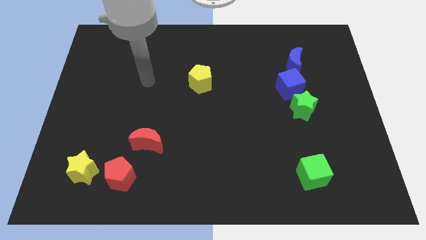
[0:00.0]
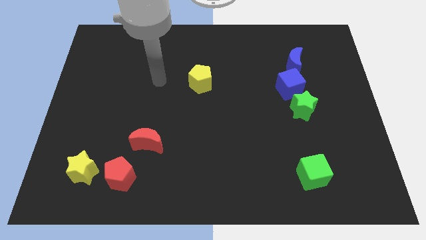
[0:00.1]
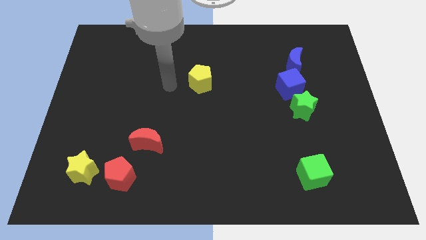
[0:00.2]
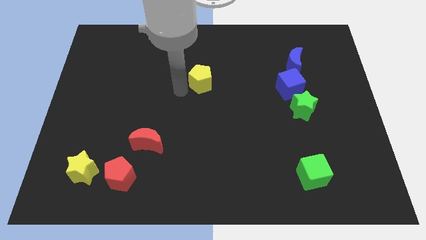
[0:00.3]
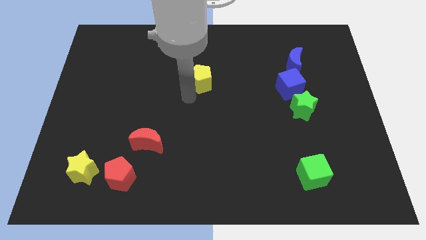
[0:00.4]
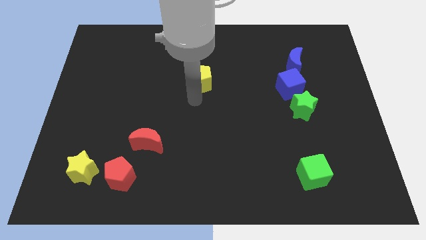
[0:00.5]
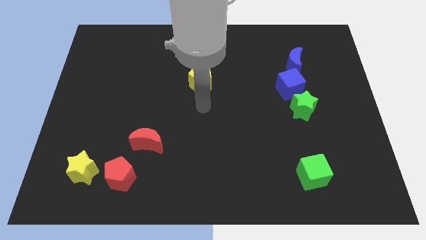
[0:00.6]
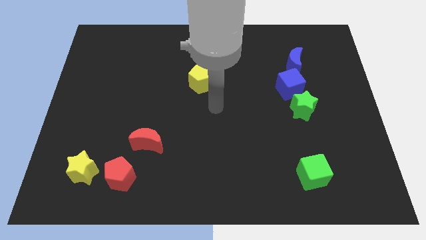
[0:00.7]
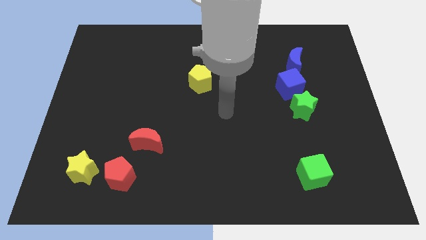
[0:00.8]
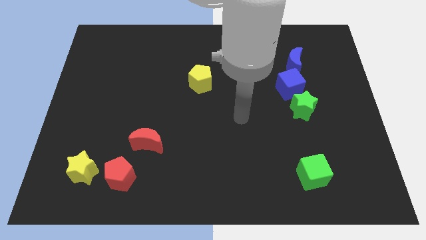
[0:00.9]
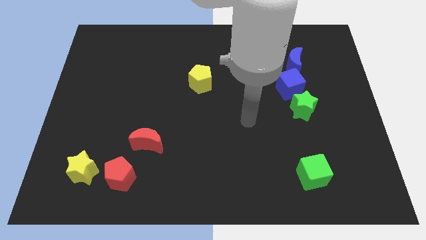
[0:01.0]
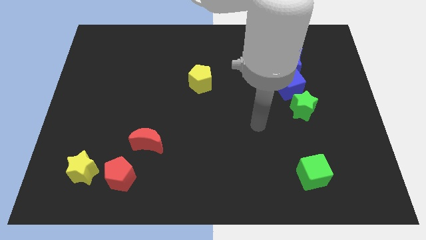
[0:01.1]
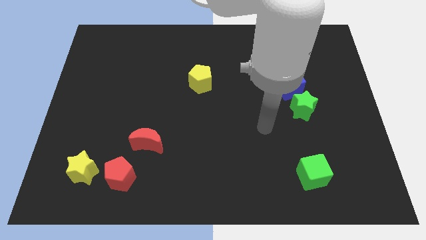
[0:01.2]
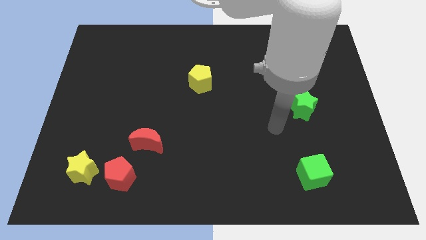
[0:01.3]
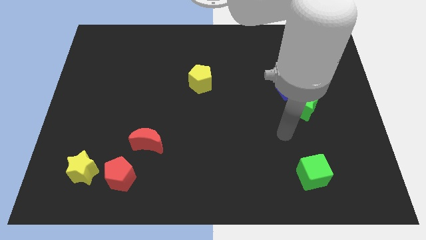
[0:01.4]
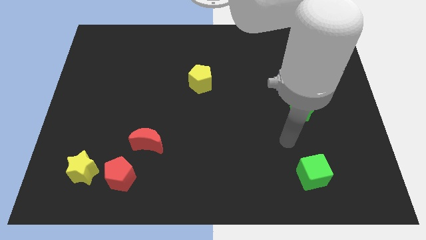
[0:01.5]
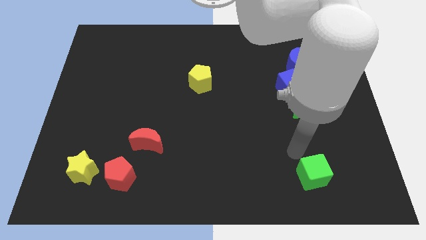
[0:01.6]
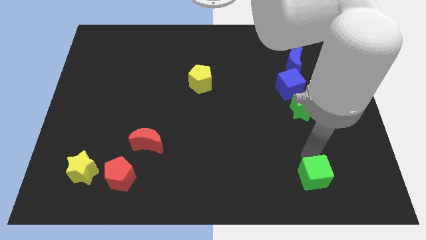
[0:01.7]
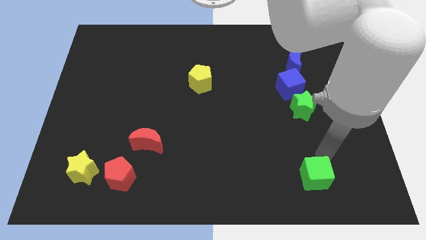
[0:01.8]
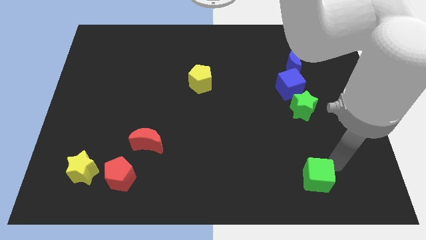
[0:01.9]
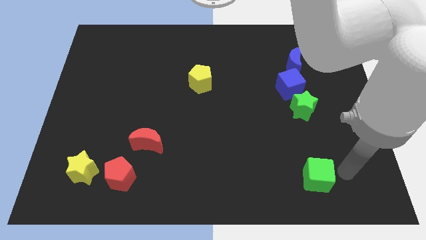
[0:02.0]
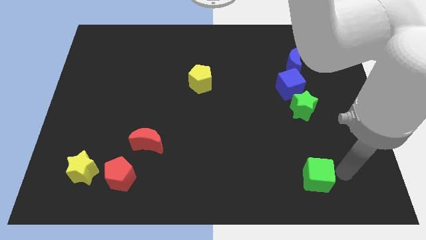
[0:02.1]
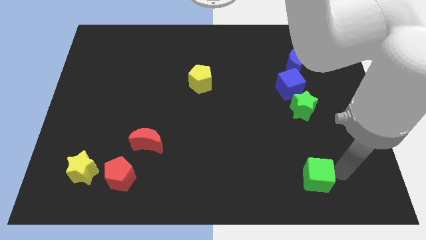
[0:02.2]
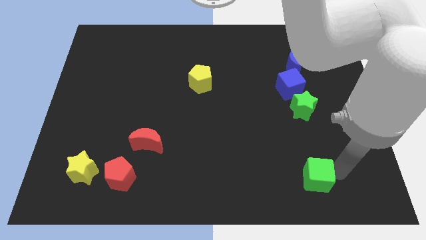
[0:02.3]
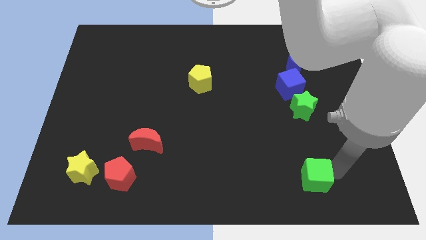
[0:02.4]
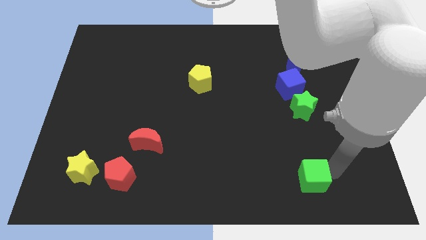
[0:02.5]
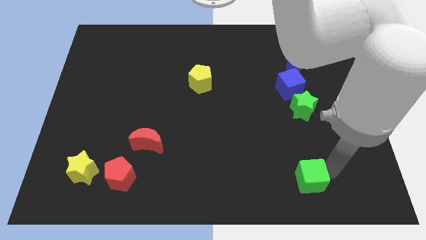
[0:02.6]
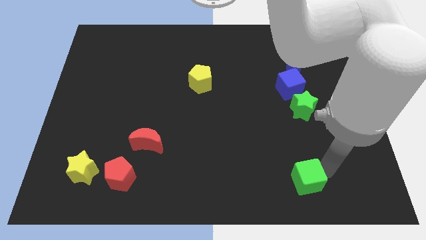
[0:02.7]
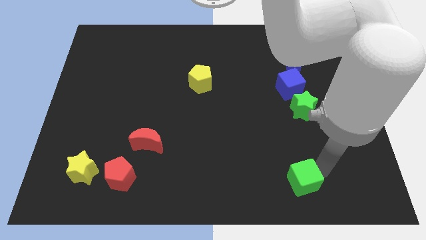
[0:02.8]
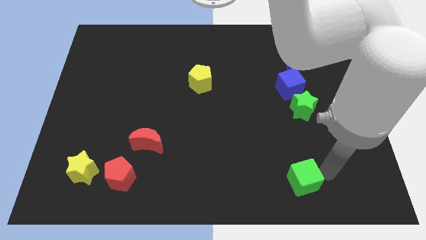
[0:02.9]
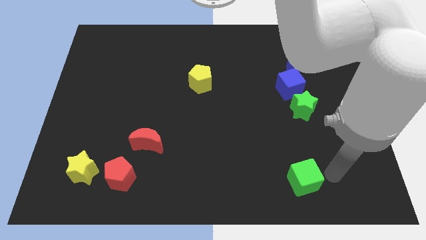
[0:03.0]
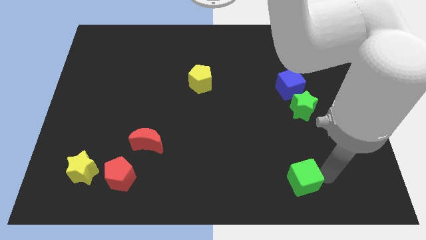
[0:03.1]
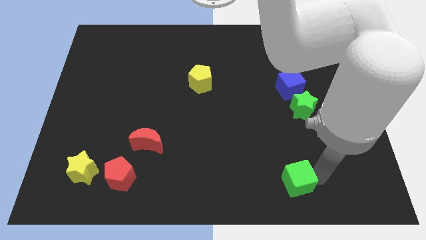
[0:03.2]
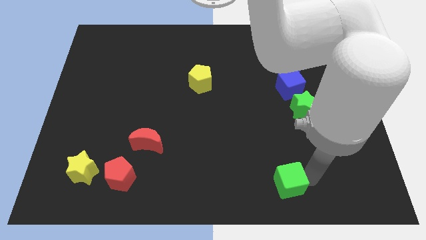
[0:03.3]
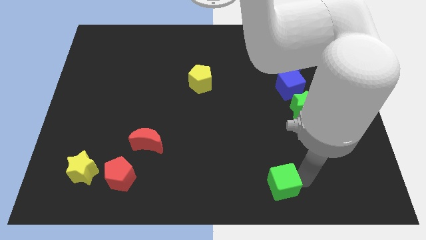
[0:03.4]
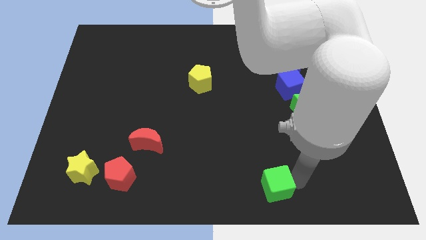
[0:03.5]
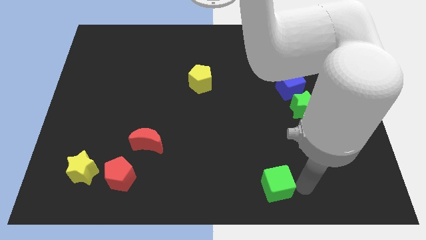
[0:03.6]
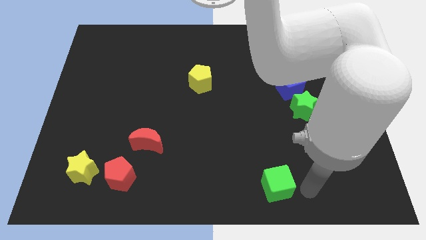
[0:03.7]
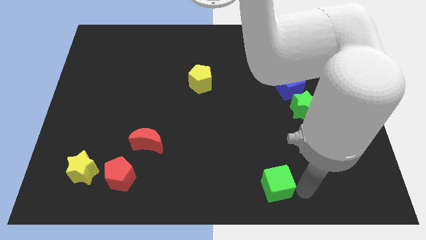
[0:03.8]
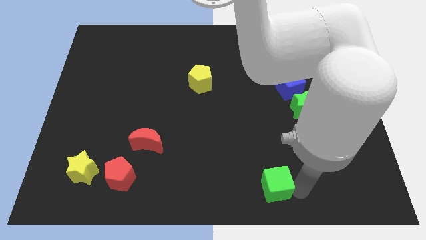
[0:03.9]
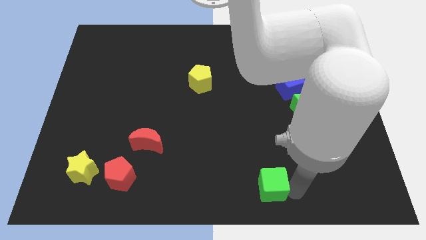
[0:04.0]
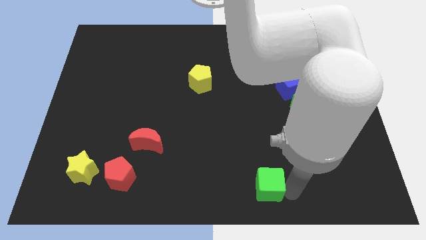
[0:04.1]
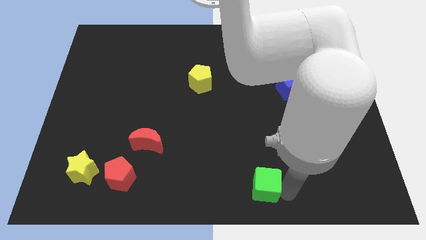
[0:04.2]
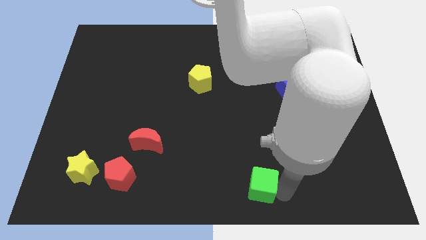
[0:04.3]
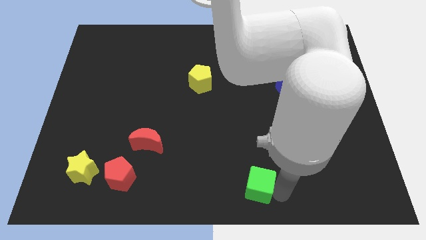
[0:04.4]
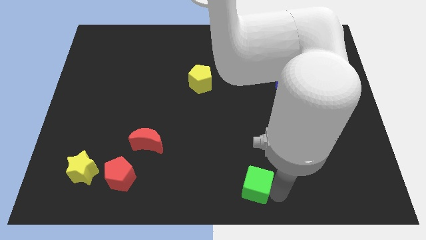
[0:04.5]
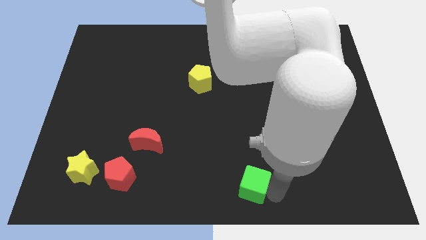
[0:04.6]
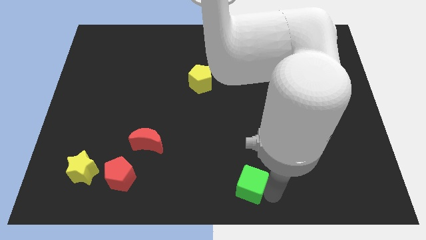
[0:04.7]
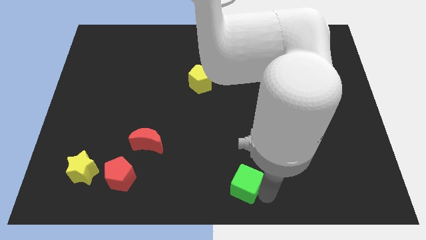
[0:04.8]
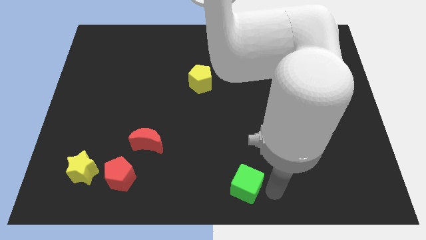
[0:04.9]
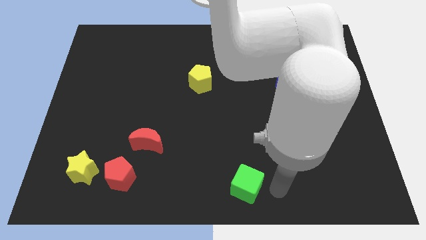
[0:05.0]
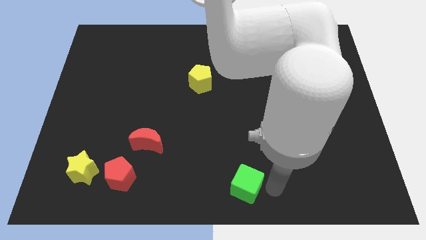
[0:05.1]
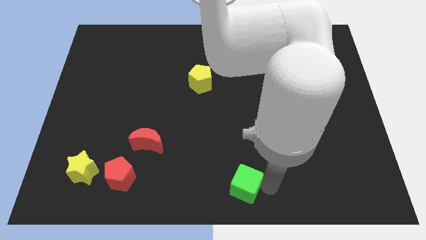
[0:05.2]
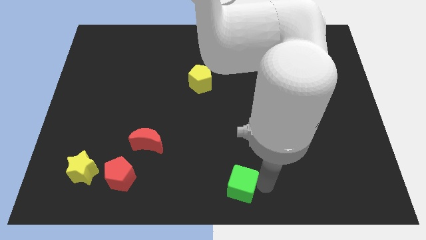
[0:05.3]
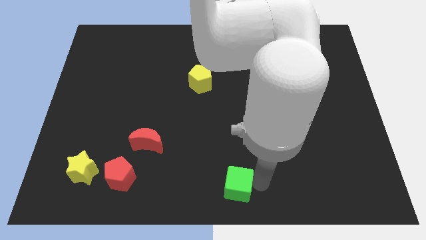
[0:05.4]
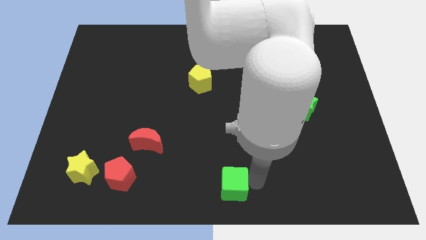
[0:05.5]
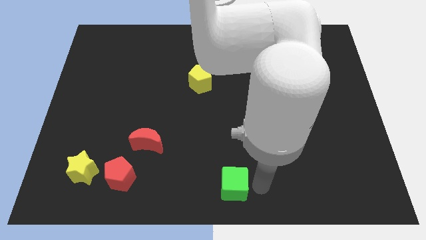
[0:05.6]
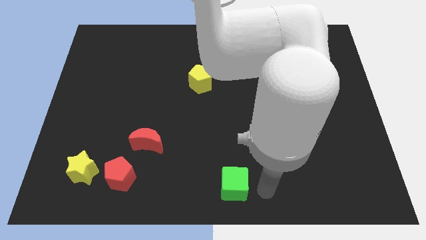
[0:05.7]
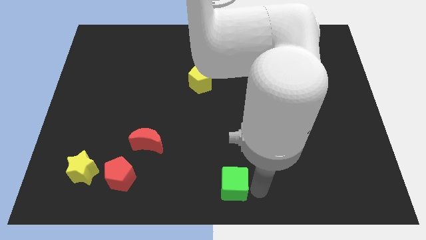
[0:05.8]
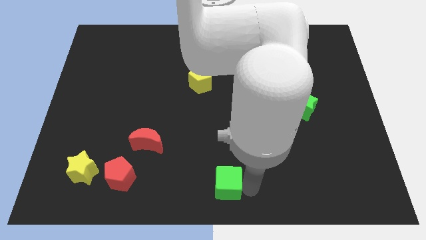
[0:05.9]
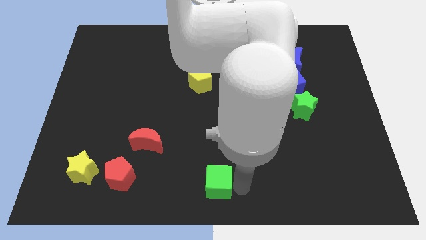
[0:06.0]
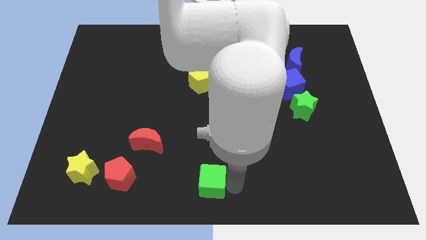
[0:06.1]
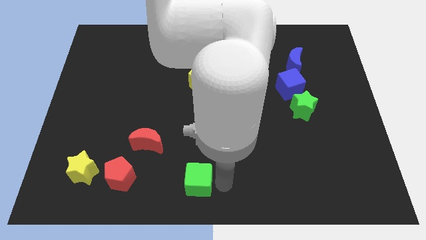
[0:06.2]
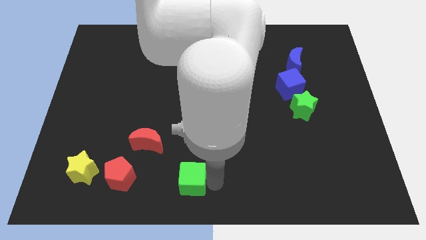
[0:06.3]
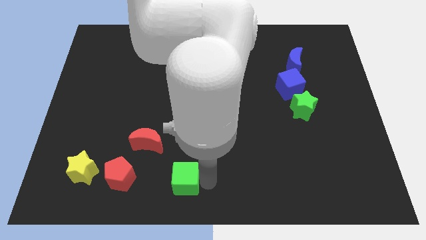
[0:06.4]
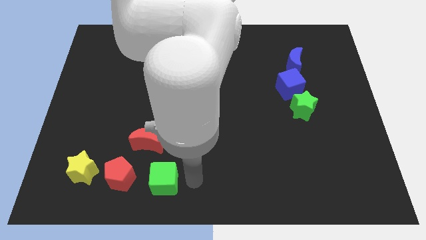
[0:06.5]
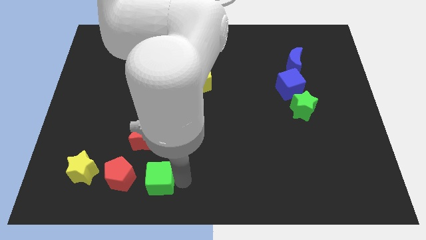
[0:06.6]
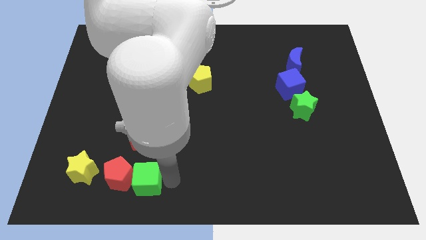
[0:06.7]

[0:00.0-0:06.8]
move the green cube close to the red pentagon

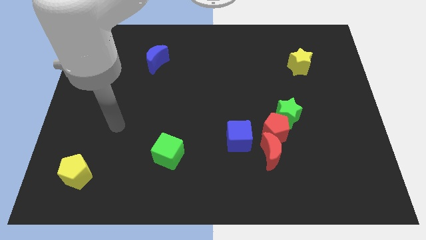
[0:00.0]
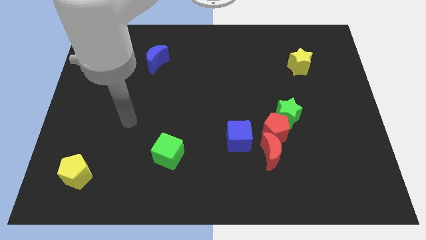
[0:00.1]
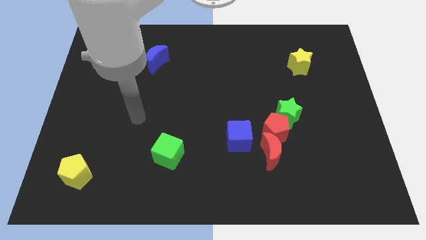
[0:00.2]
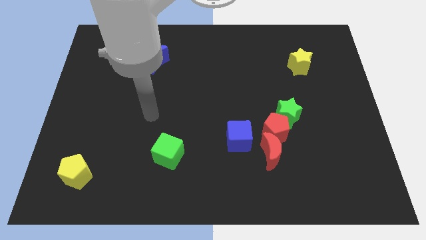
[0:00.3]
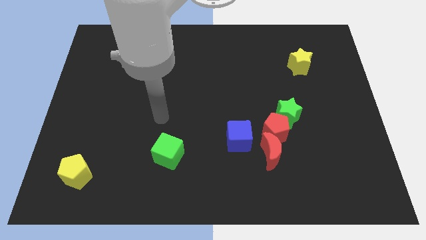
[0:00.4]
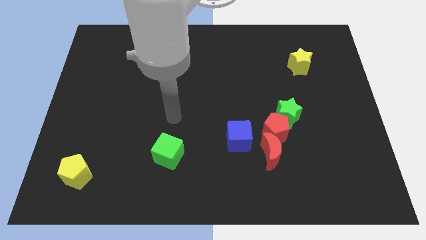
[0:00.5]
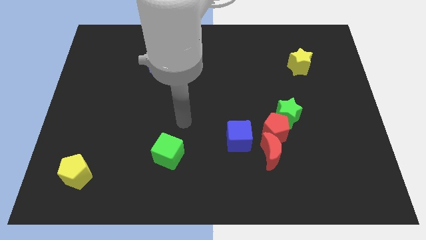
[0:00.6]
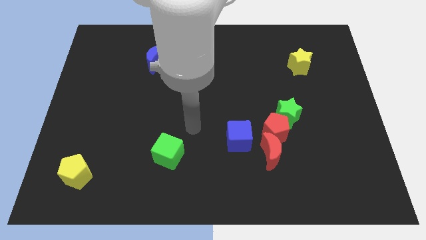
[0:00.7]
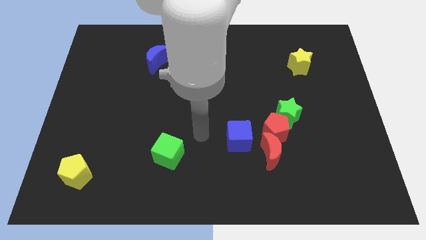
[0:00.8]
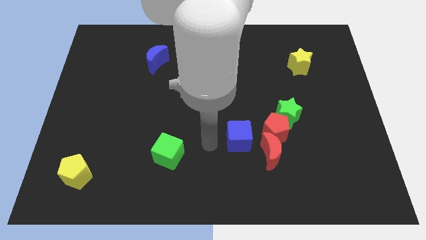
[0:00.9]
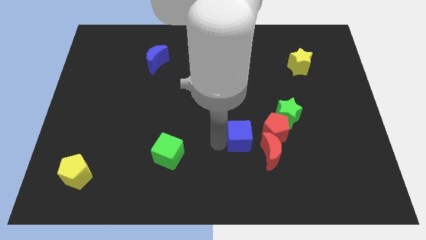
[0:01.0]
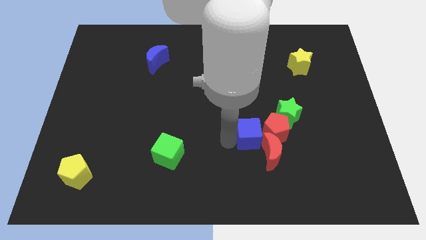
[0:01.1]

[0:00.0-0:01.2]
move the blue cube towards the red pentagon
